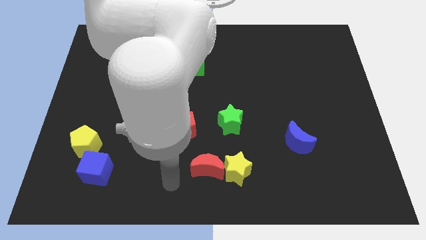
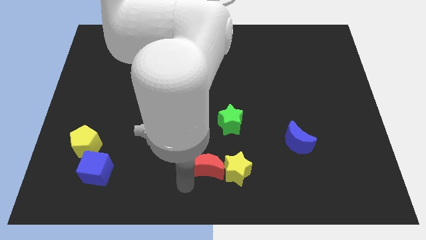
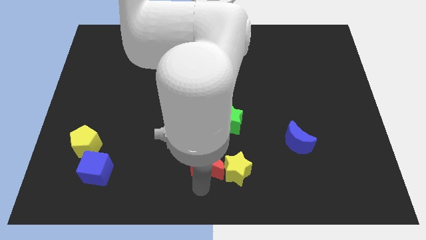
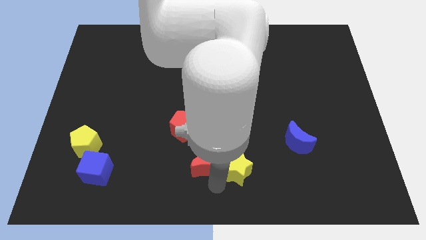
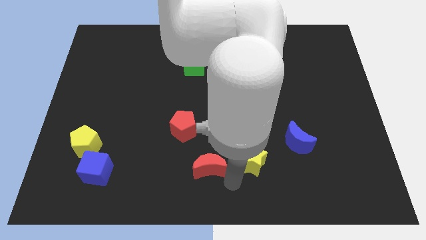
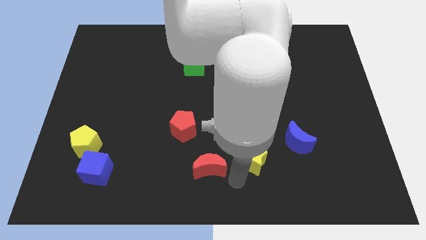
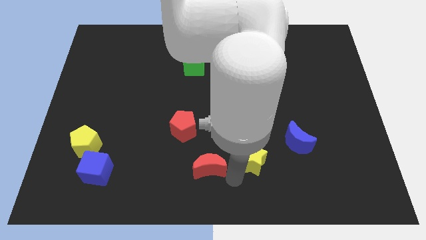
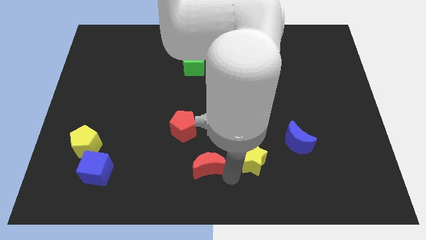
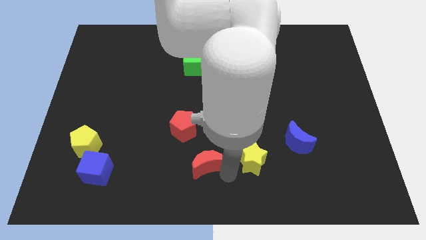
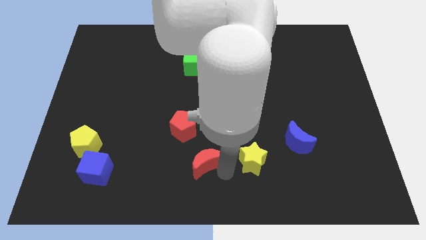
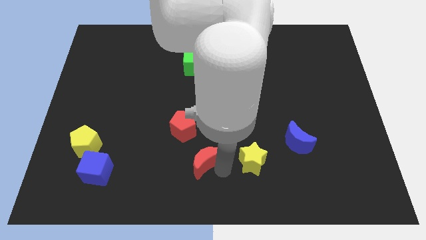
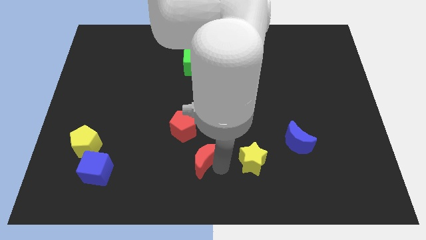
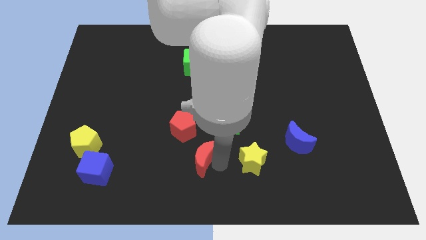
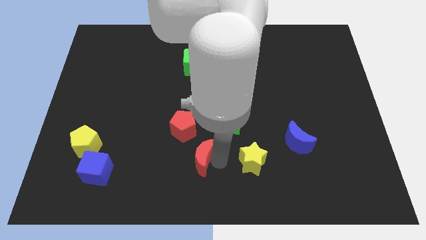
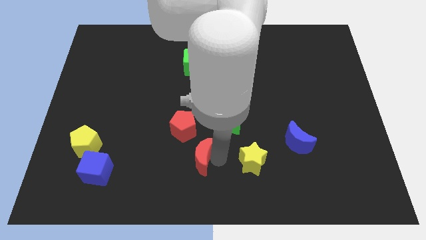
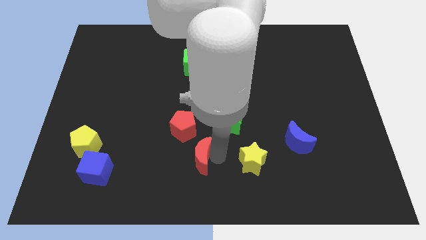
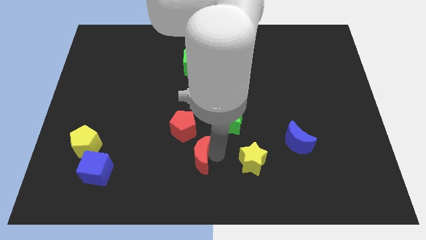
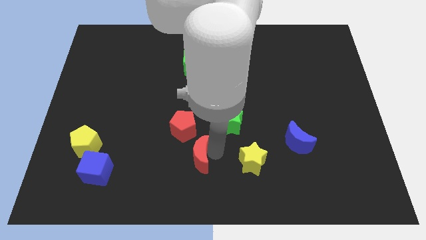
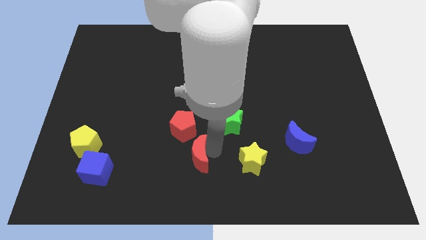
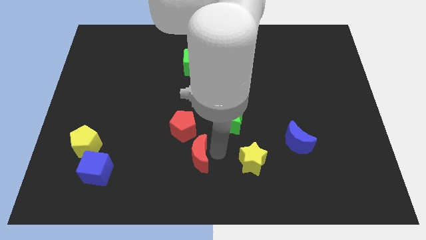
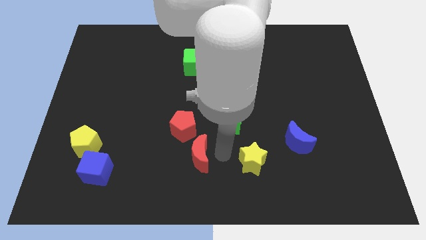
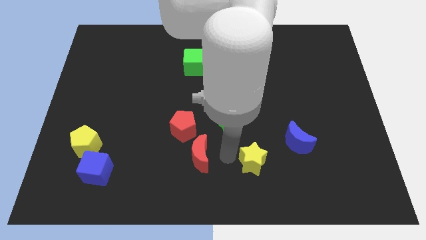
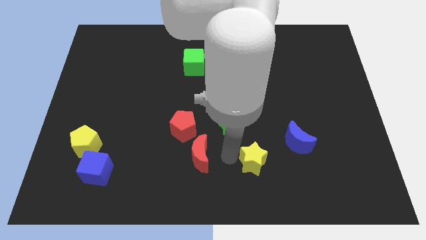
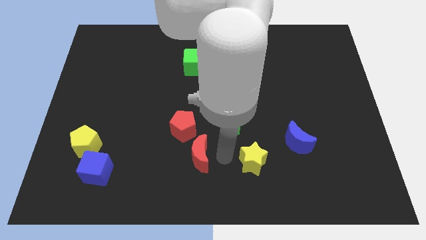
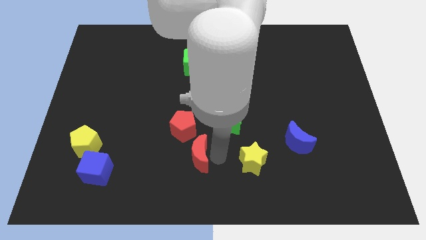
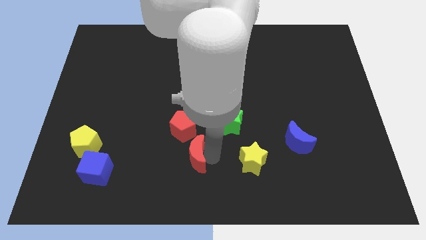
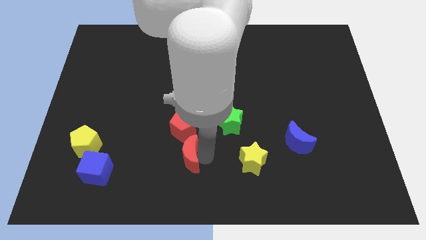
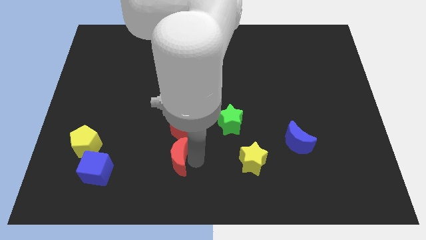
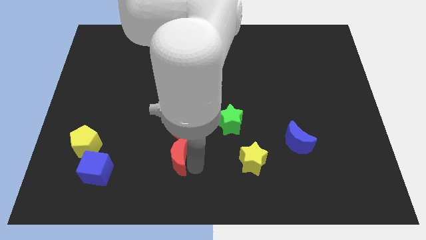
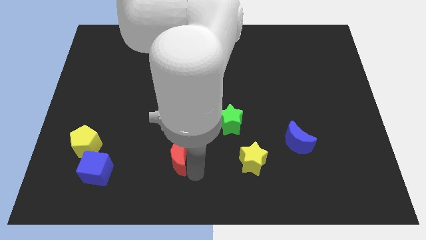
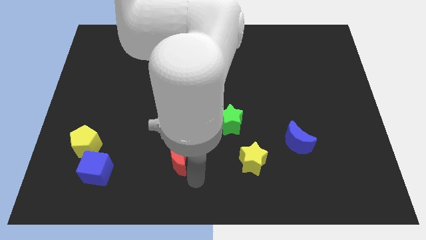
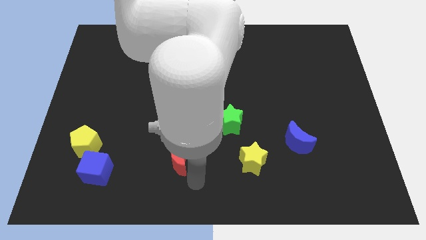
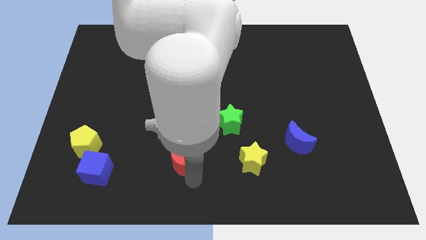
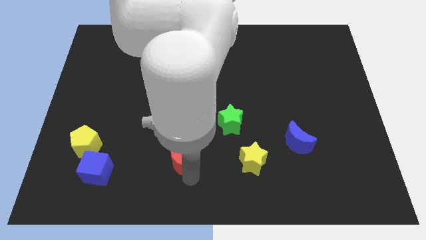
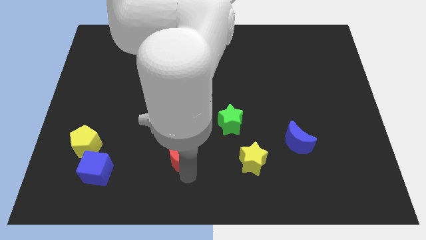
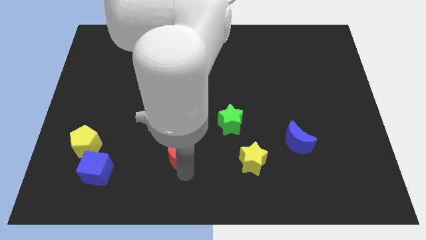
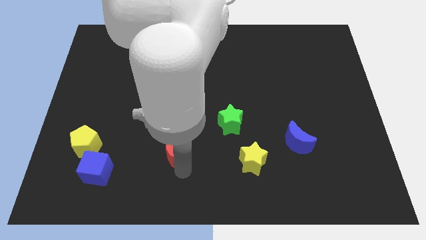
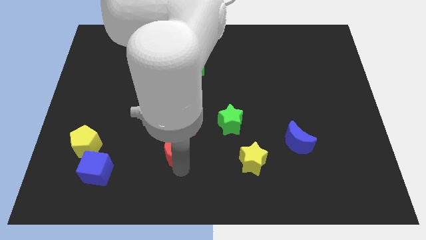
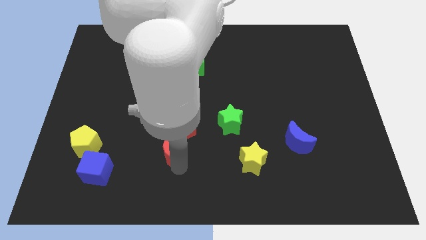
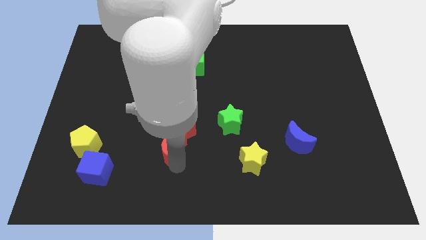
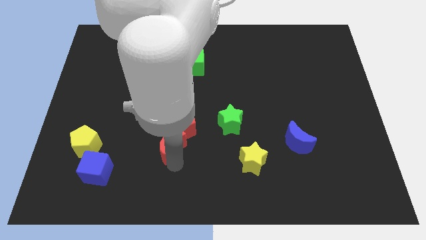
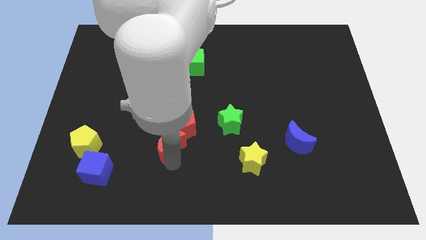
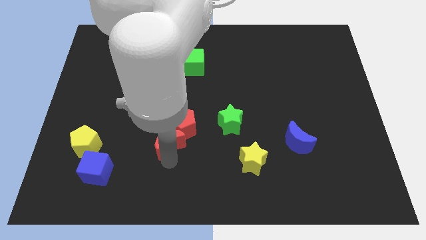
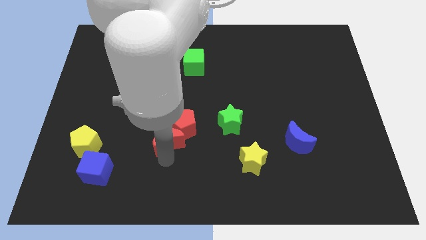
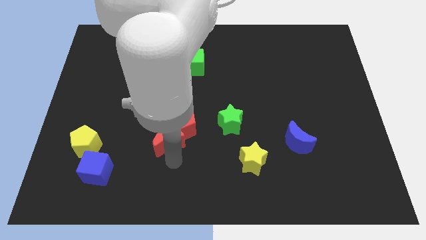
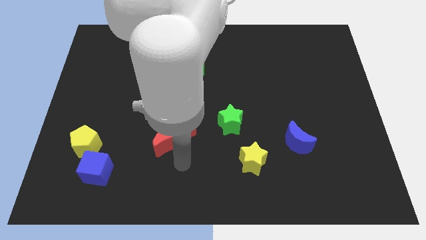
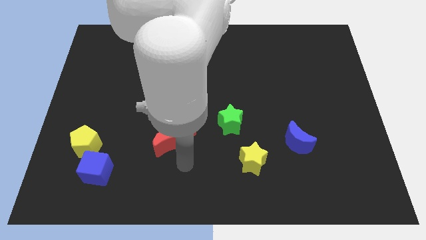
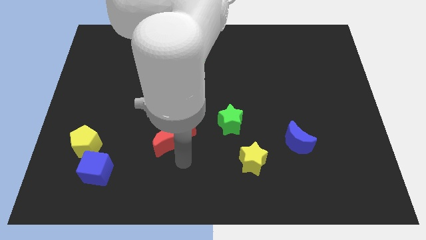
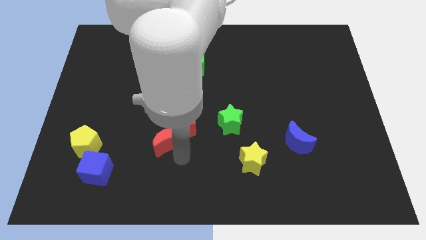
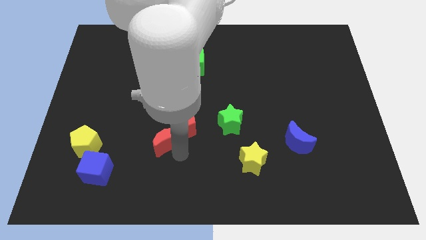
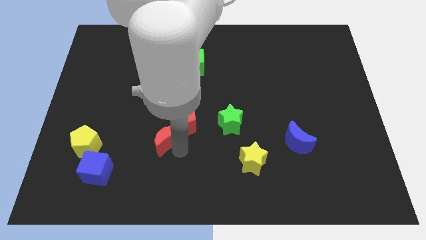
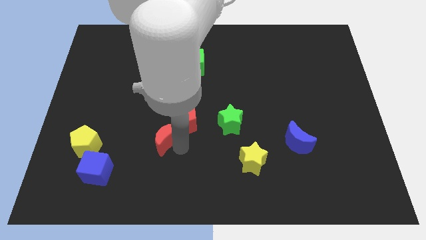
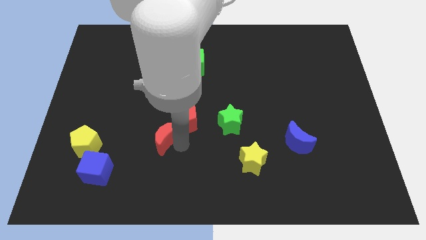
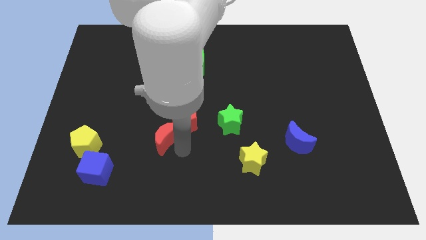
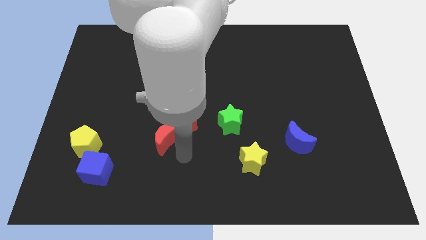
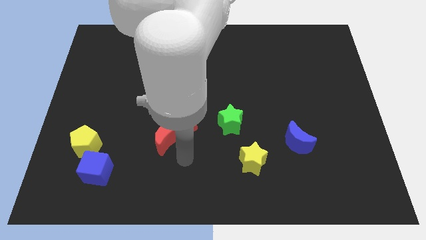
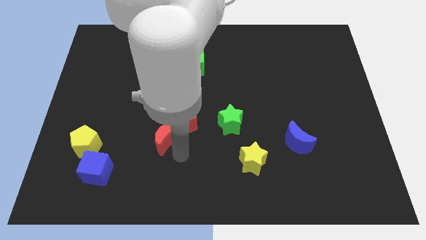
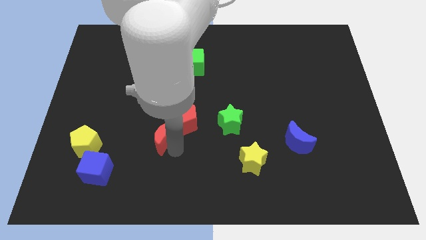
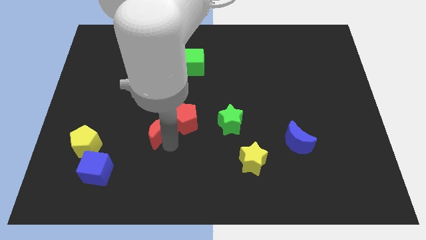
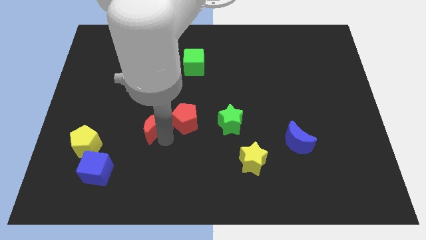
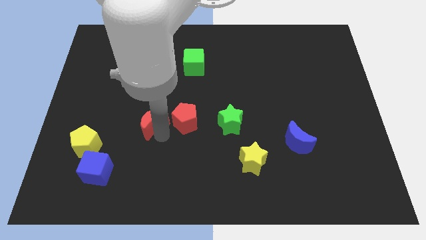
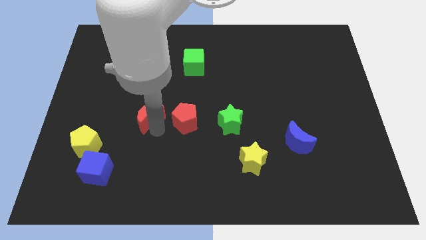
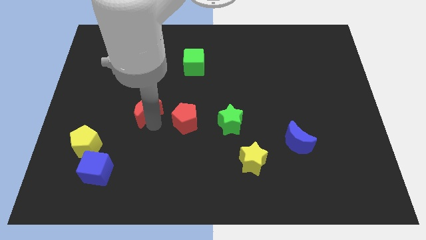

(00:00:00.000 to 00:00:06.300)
push the red moon up and to the left

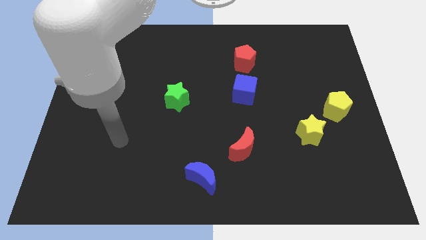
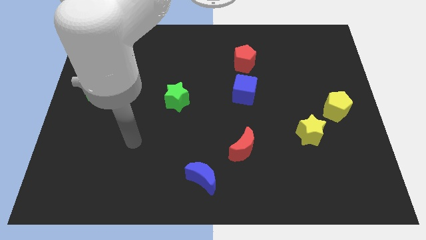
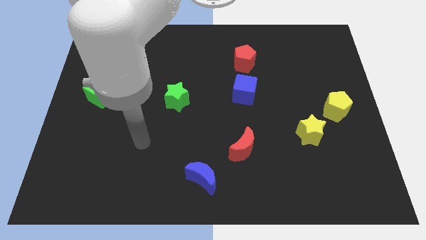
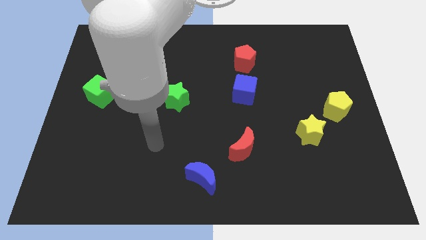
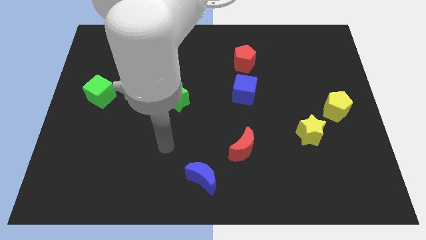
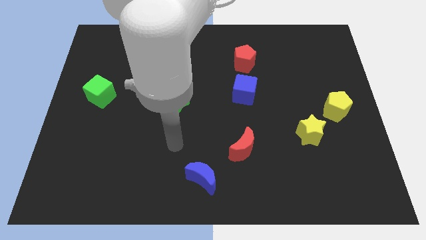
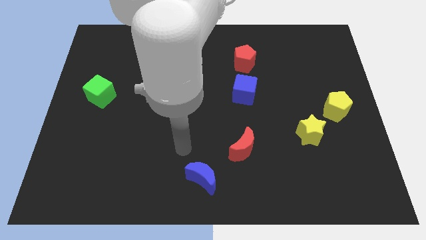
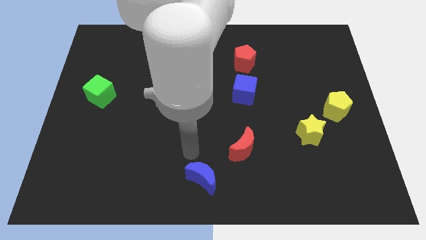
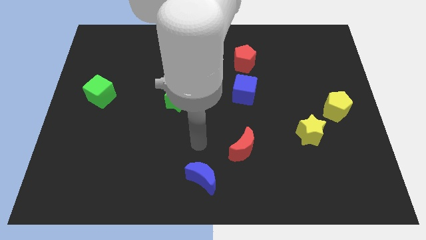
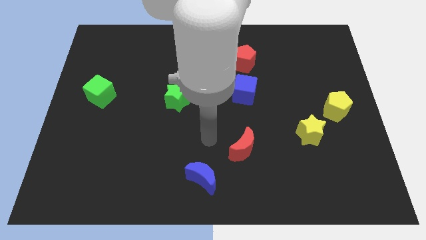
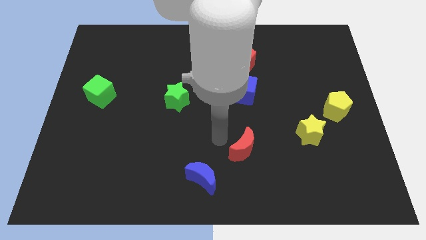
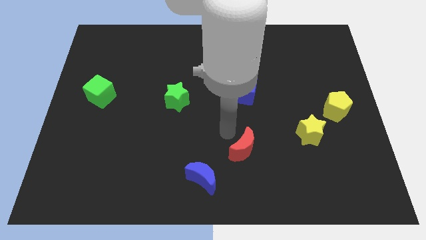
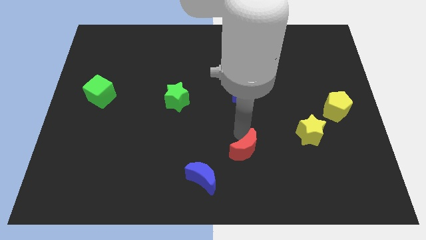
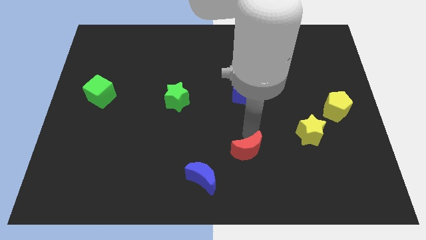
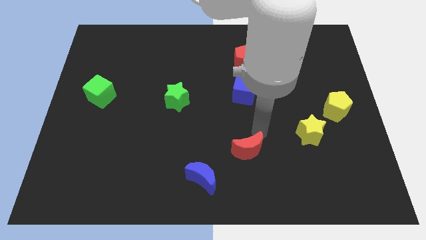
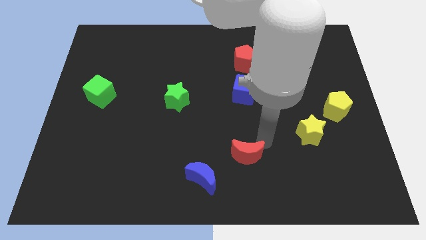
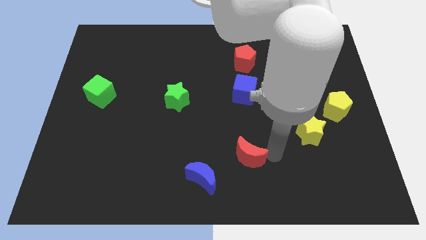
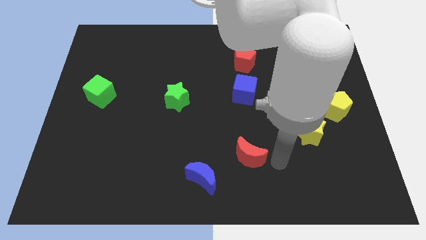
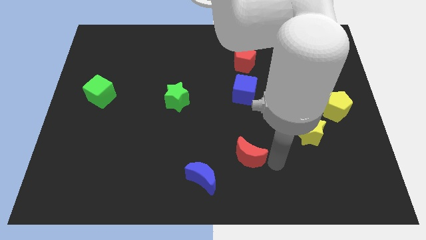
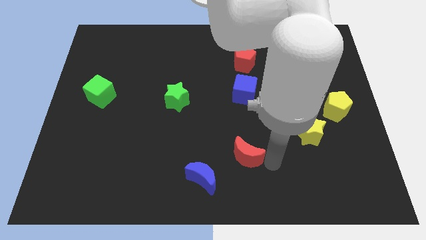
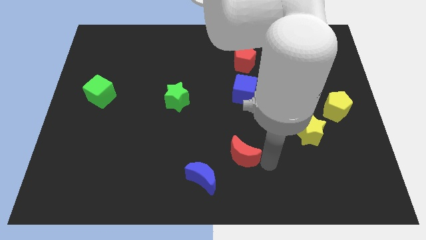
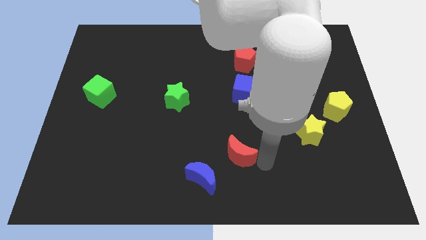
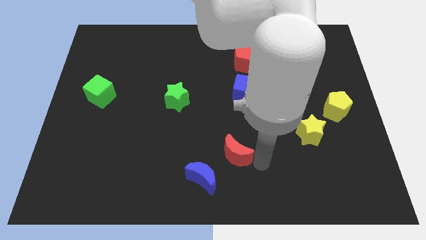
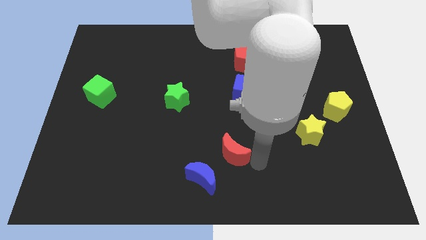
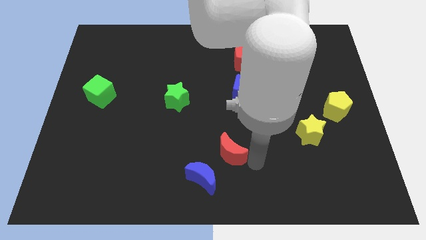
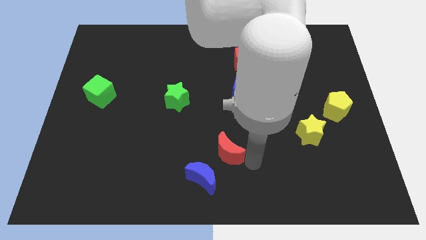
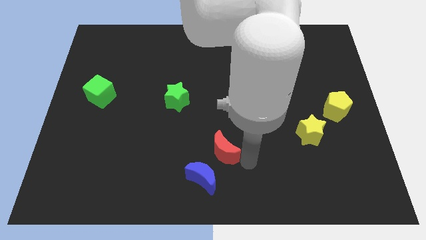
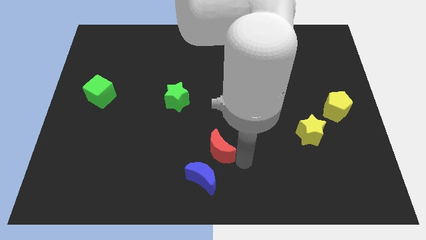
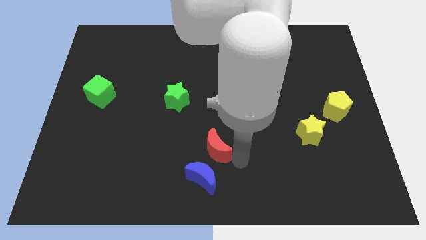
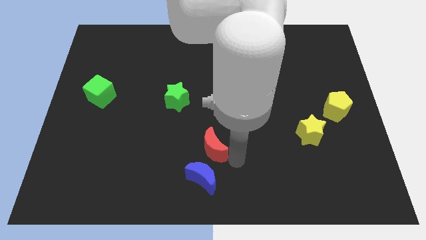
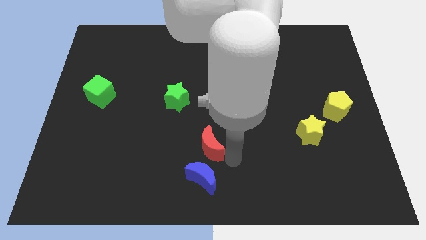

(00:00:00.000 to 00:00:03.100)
slide the red moon to the left a little bit
